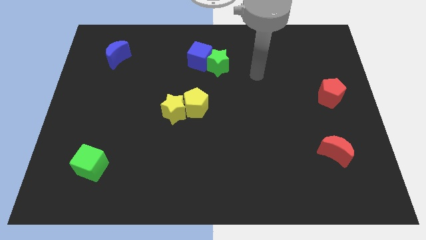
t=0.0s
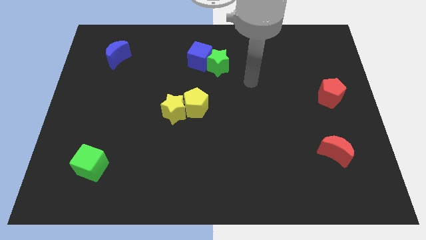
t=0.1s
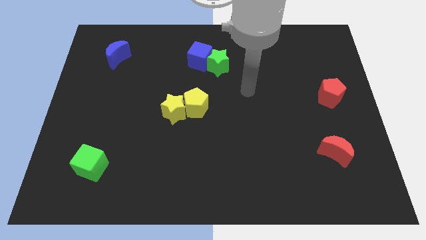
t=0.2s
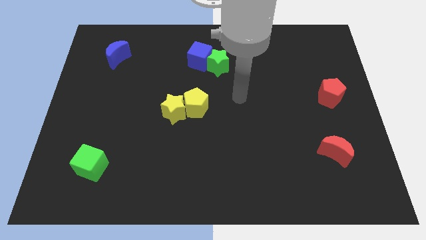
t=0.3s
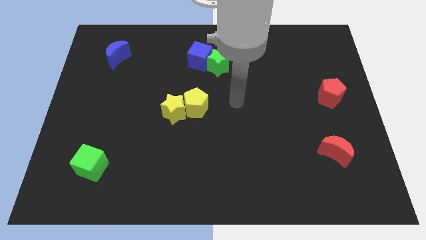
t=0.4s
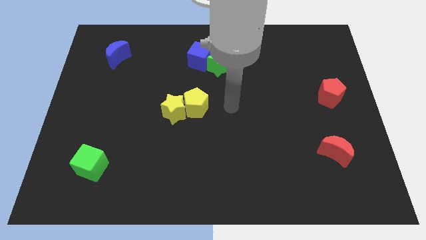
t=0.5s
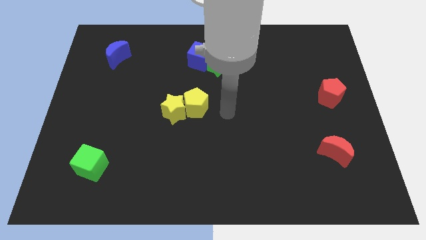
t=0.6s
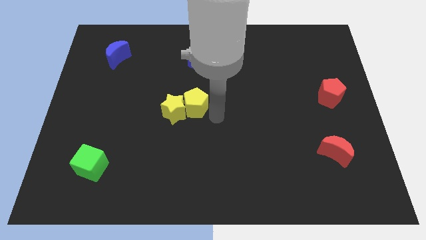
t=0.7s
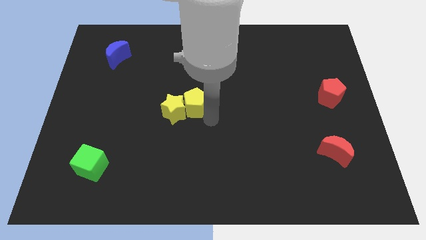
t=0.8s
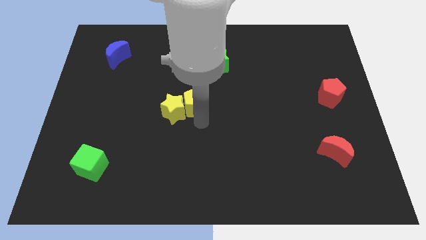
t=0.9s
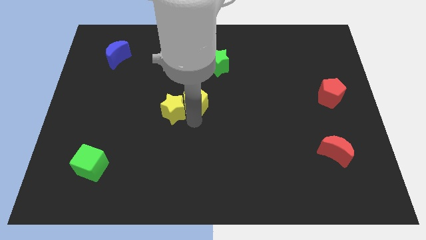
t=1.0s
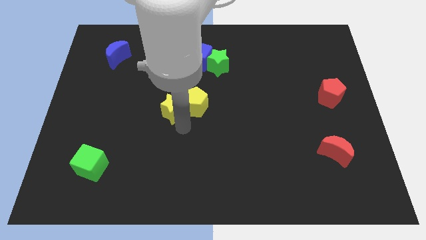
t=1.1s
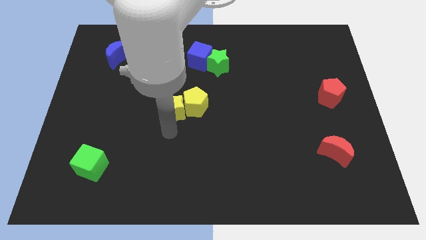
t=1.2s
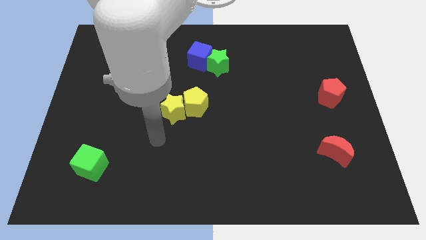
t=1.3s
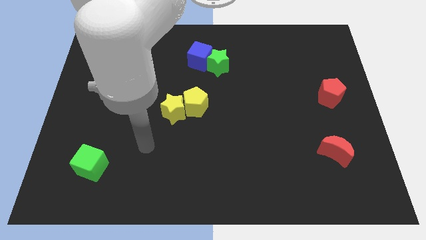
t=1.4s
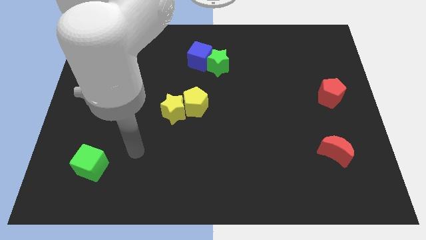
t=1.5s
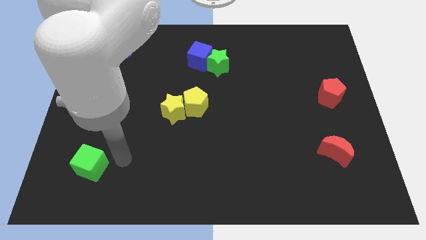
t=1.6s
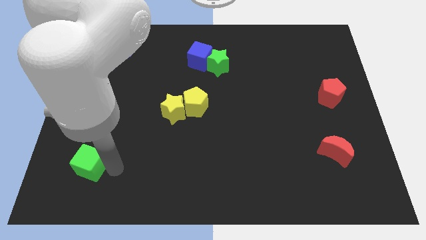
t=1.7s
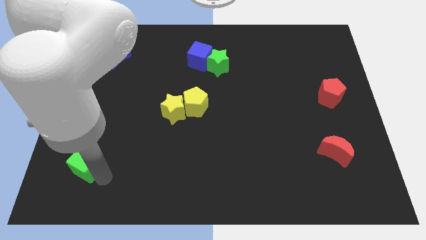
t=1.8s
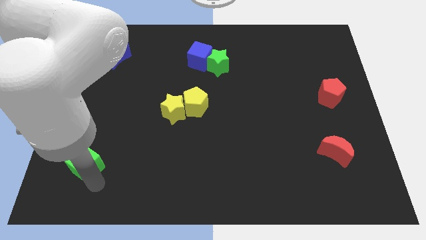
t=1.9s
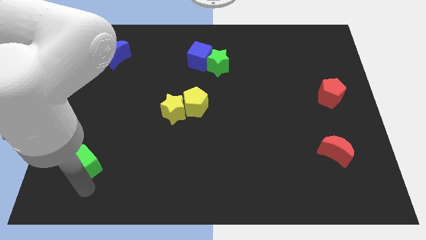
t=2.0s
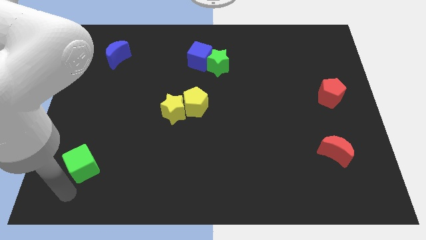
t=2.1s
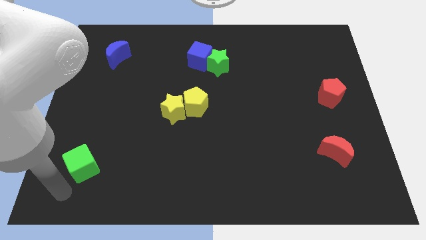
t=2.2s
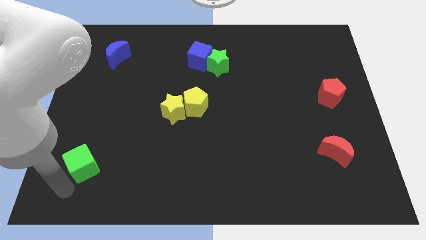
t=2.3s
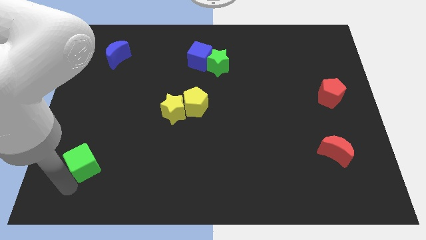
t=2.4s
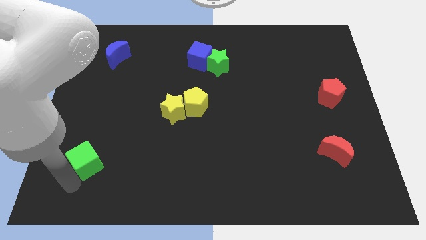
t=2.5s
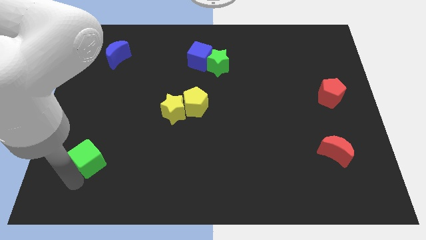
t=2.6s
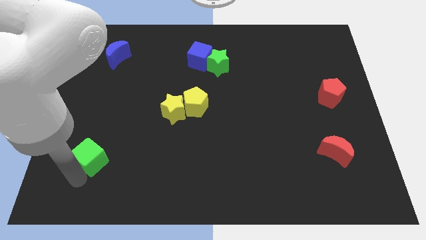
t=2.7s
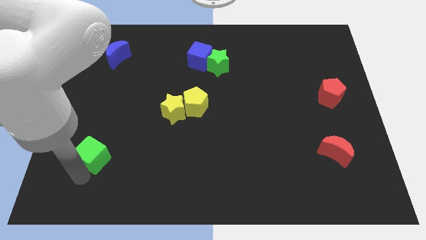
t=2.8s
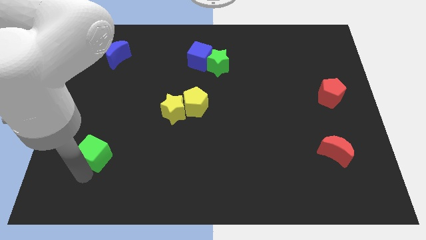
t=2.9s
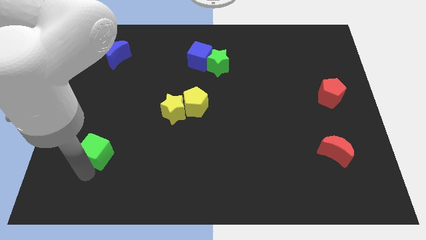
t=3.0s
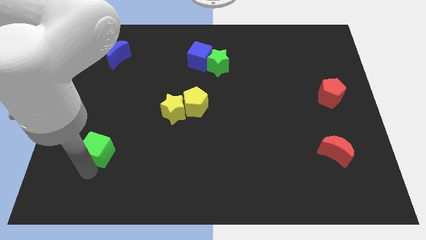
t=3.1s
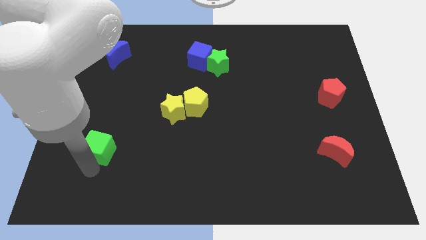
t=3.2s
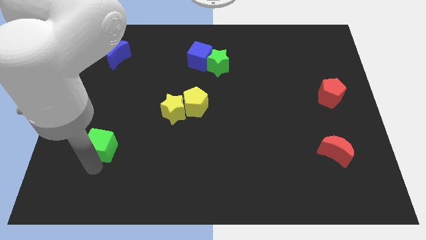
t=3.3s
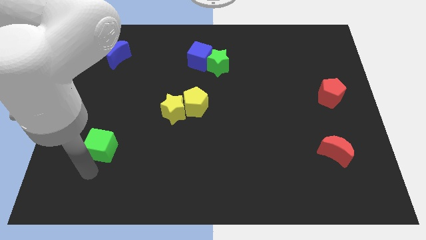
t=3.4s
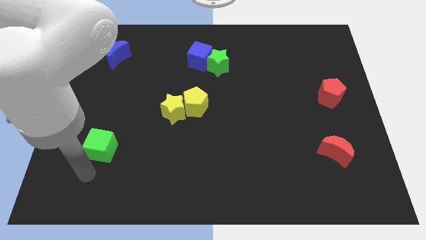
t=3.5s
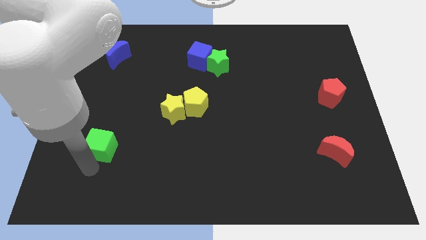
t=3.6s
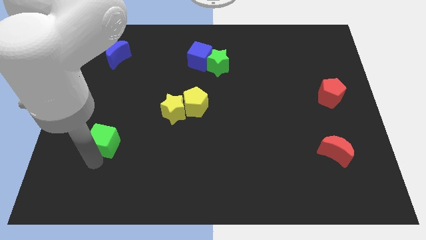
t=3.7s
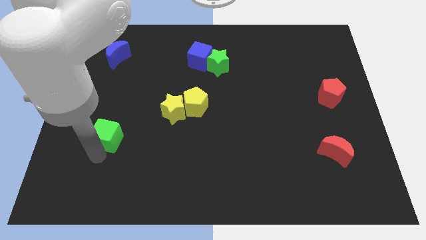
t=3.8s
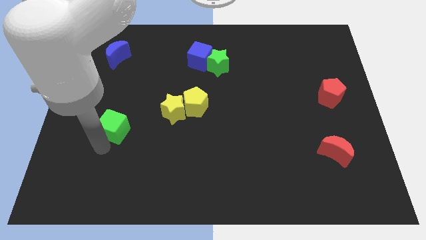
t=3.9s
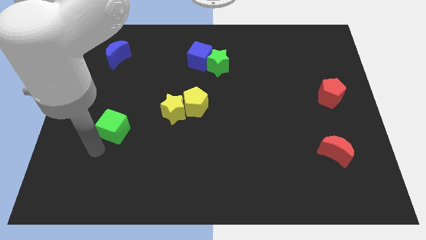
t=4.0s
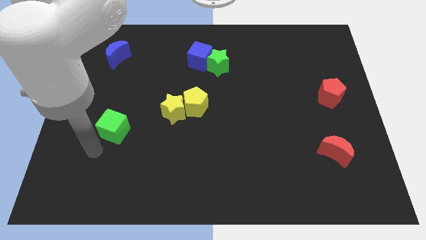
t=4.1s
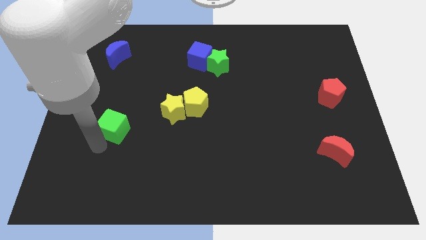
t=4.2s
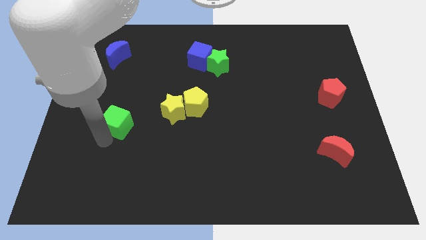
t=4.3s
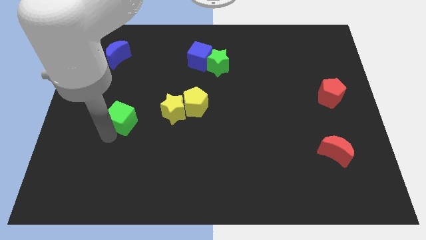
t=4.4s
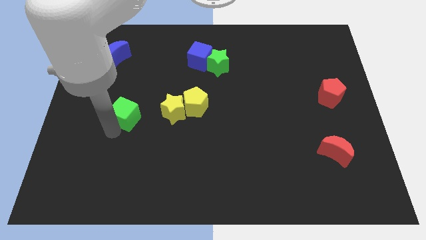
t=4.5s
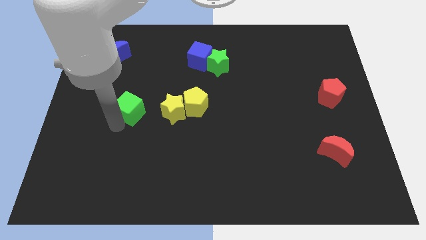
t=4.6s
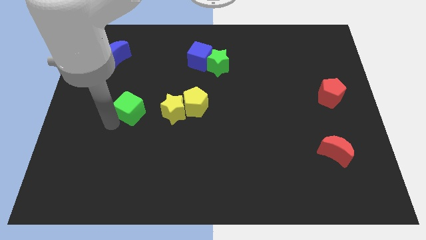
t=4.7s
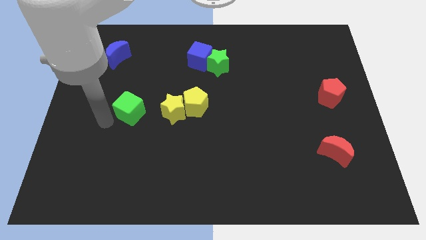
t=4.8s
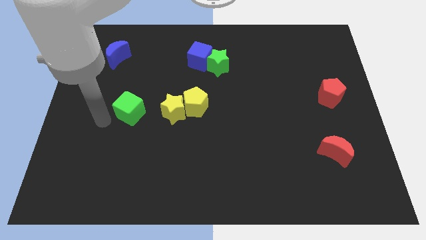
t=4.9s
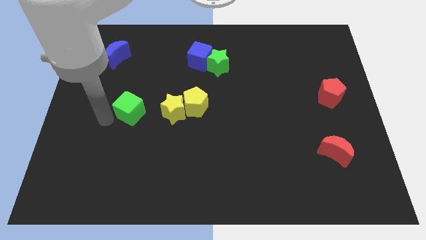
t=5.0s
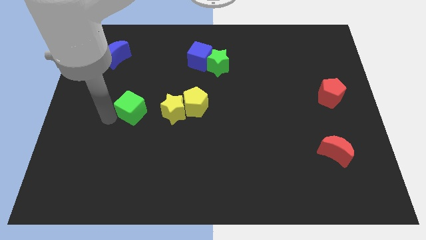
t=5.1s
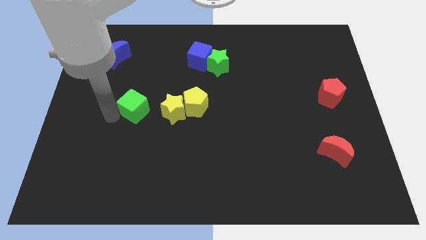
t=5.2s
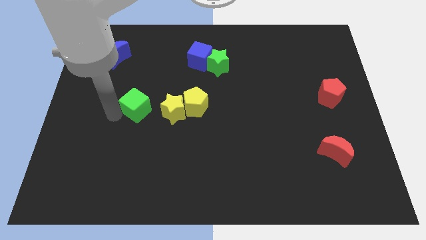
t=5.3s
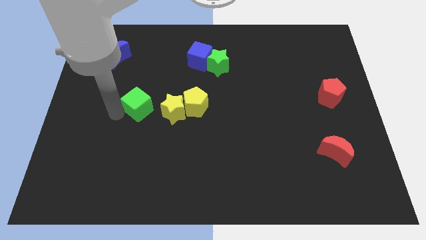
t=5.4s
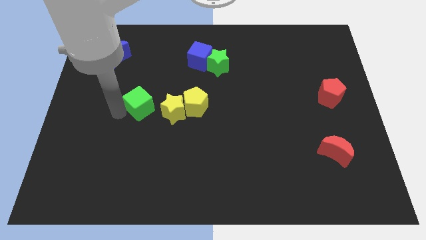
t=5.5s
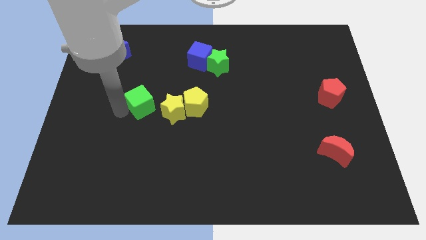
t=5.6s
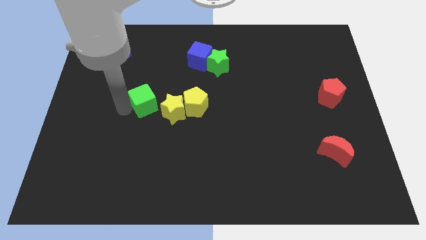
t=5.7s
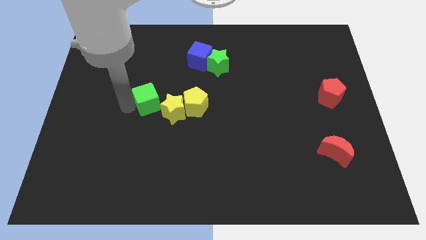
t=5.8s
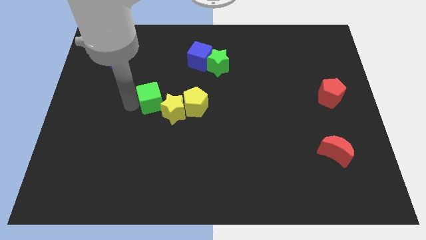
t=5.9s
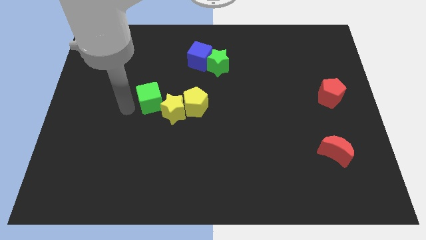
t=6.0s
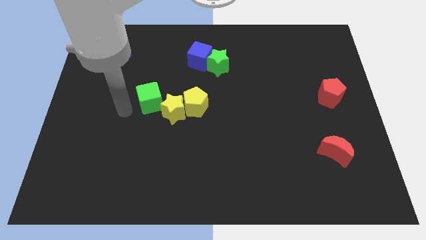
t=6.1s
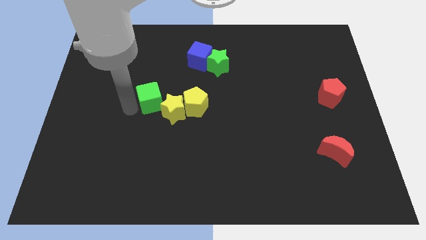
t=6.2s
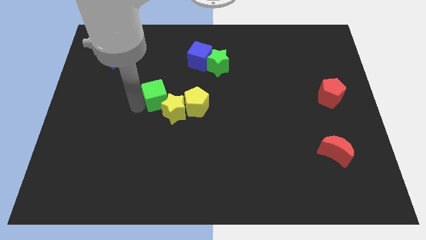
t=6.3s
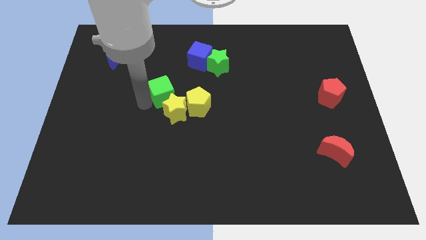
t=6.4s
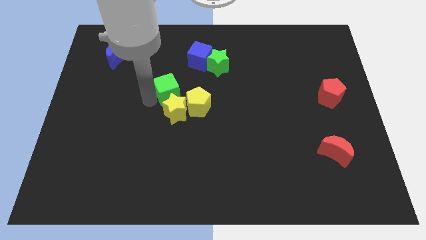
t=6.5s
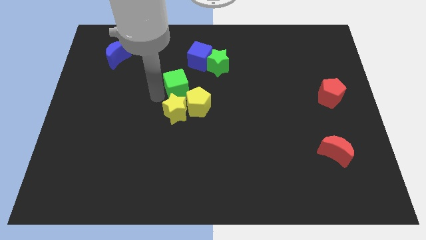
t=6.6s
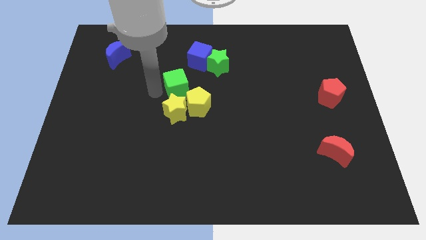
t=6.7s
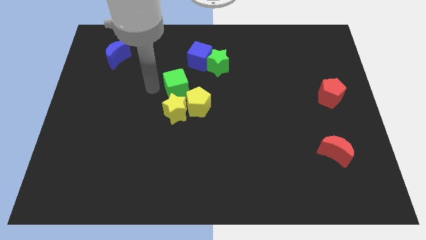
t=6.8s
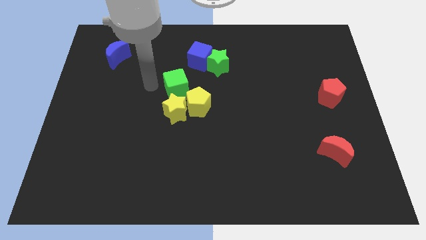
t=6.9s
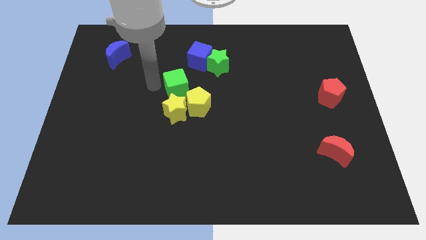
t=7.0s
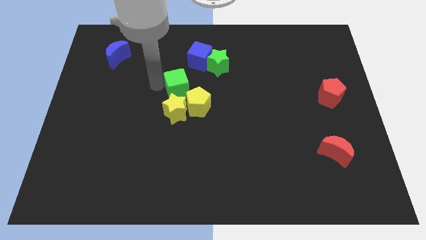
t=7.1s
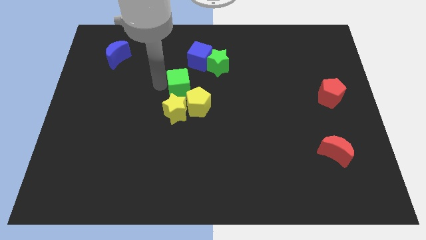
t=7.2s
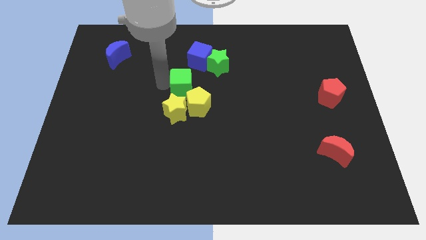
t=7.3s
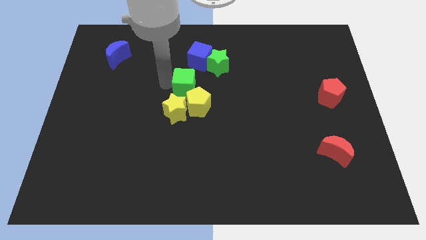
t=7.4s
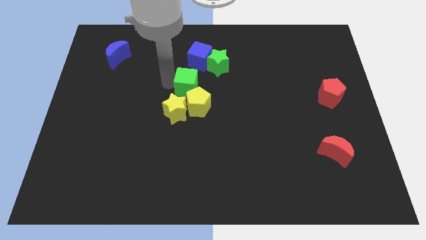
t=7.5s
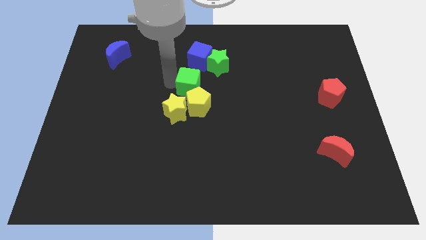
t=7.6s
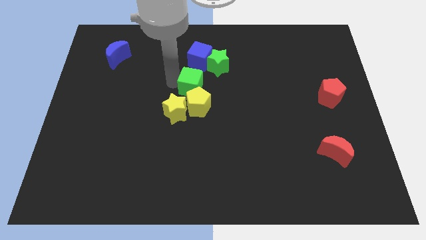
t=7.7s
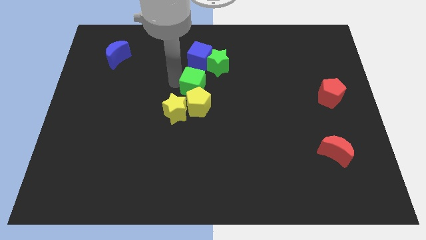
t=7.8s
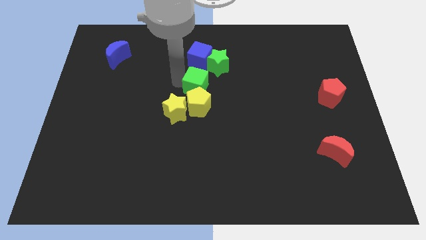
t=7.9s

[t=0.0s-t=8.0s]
slide the green cube to the top right side of the yellow pentagon
